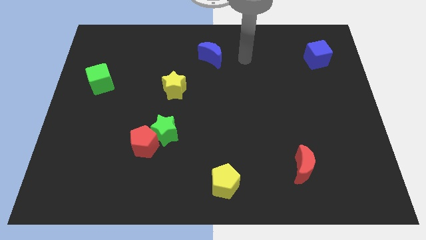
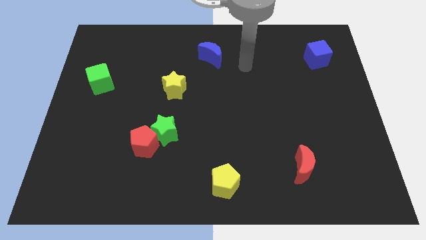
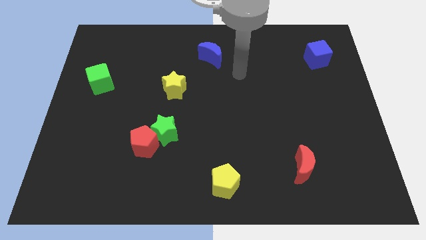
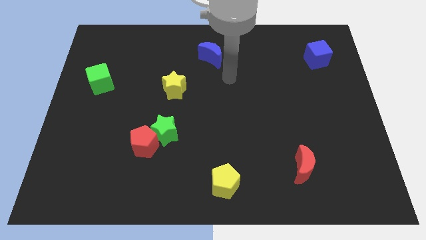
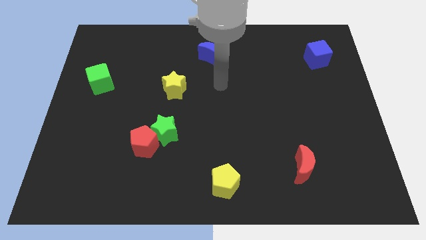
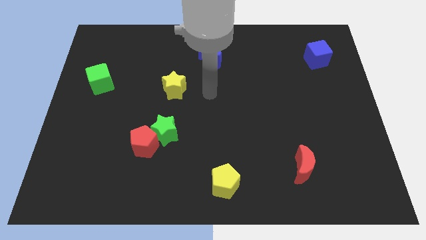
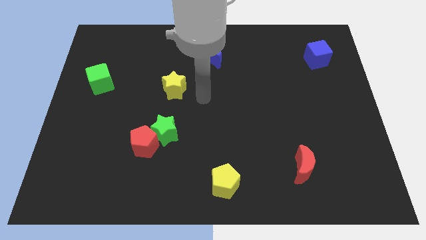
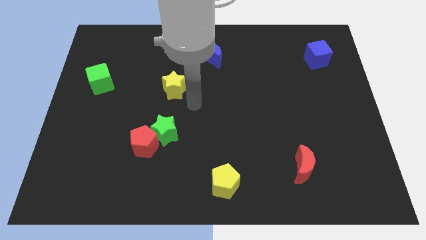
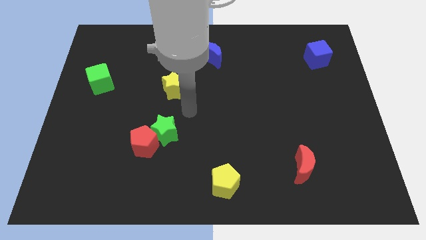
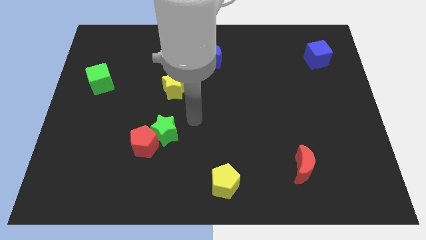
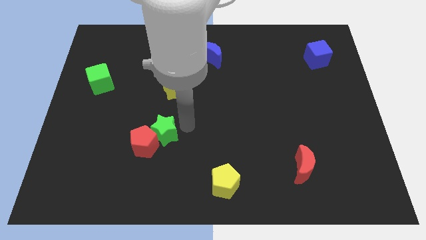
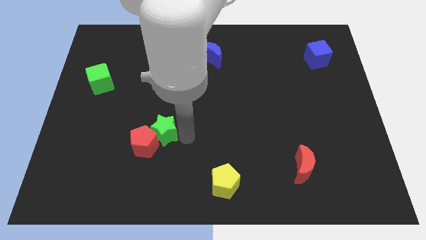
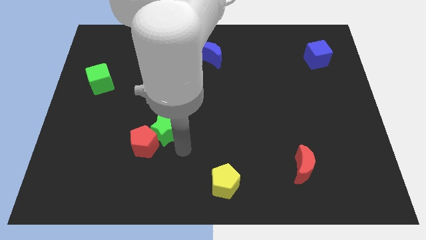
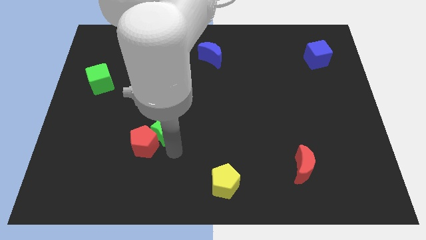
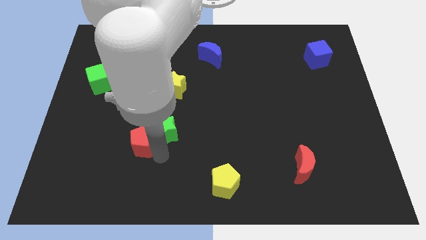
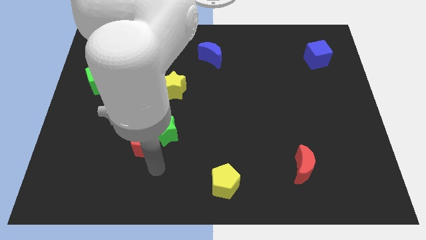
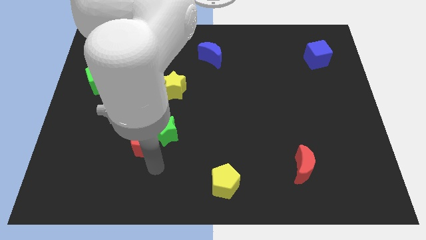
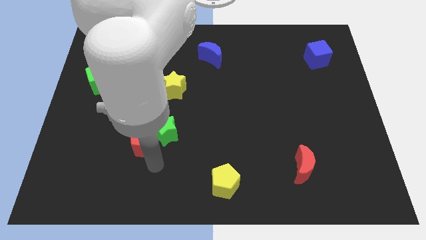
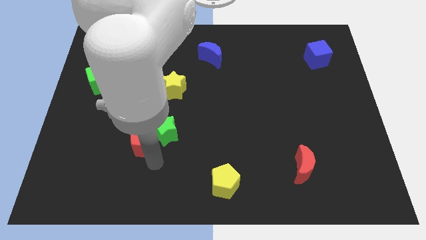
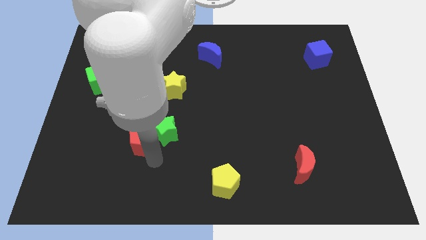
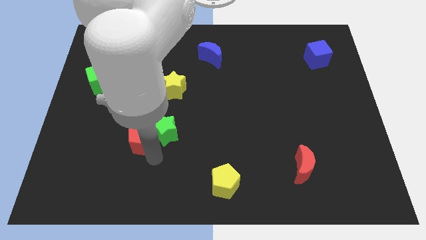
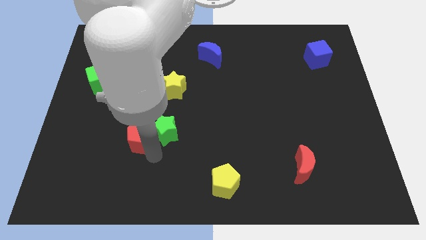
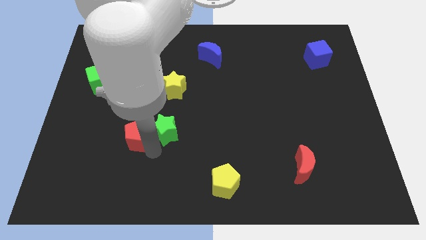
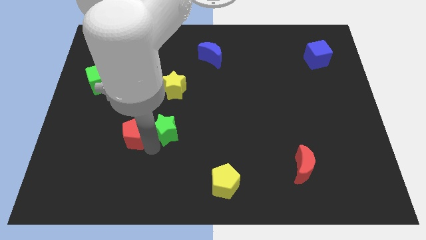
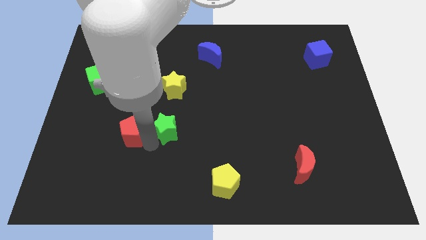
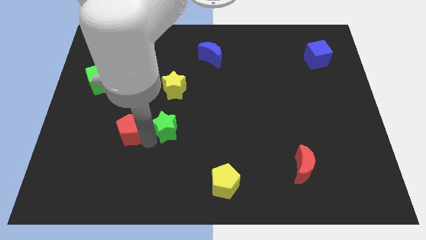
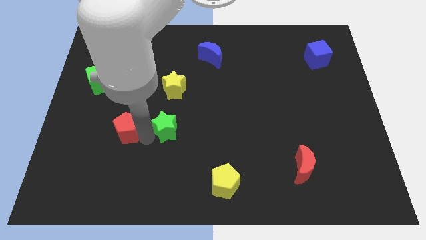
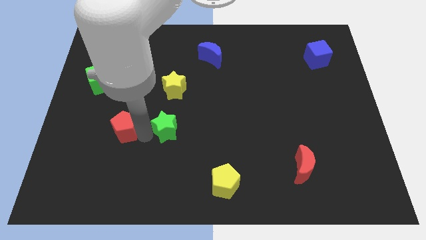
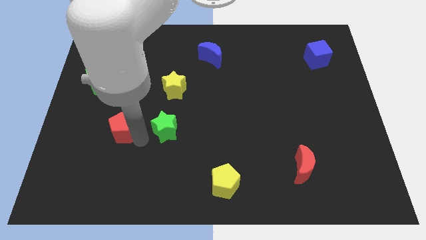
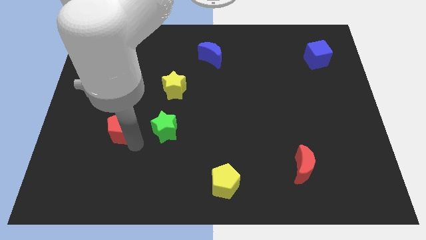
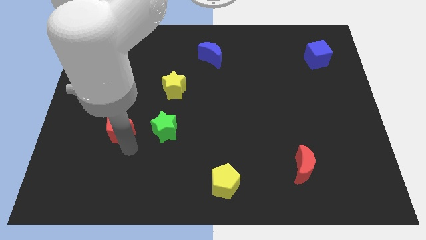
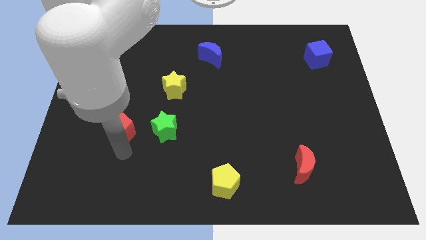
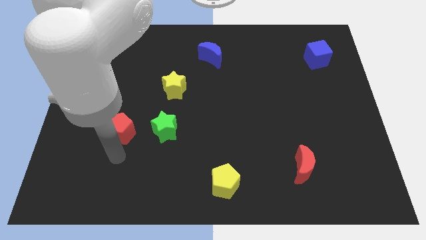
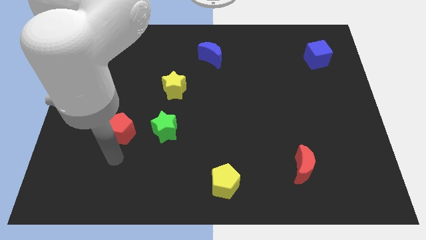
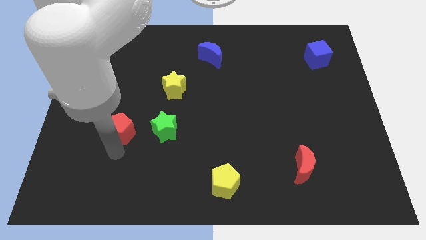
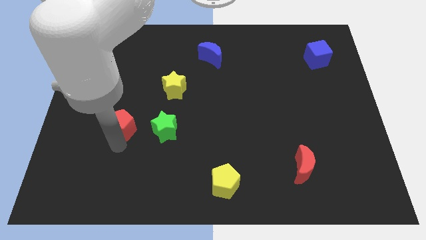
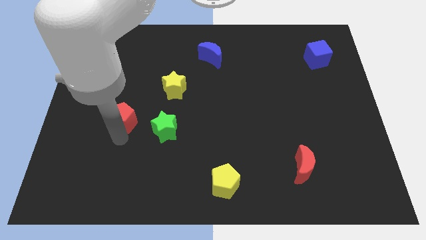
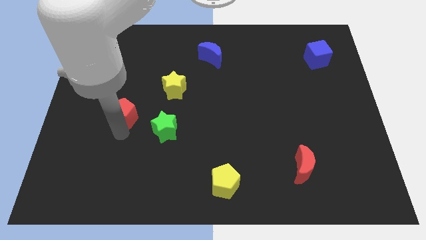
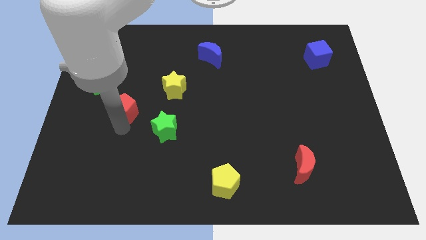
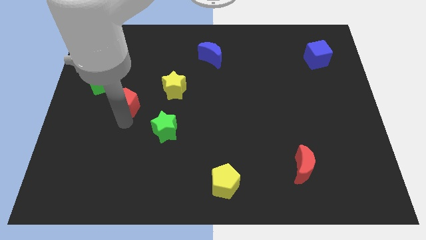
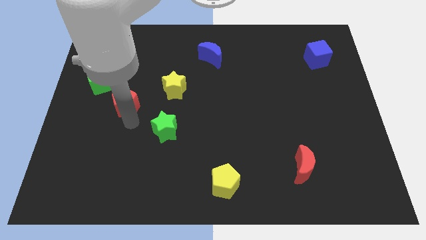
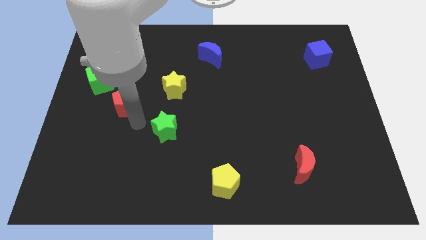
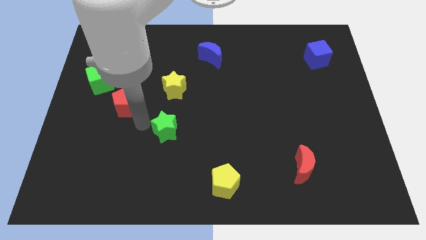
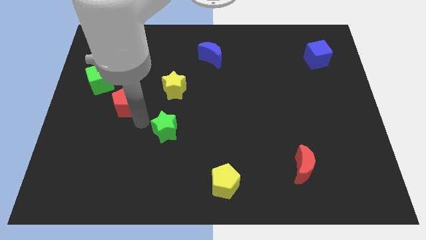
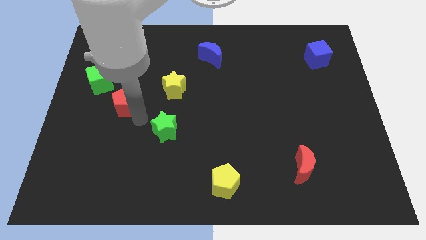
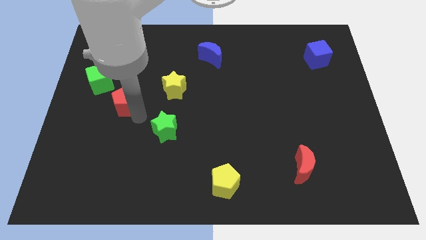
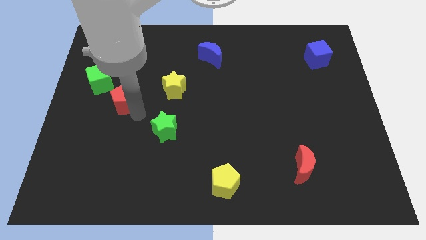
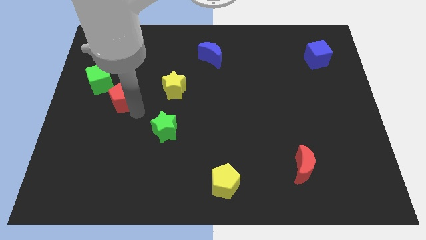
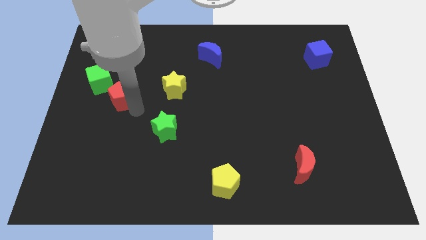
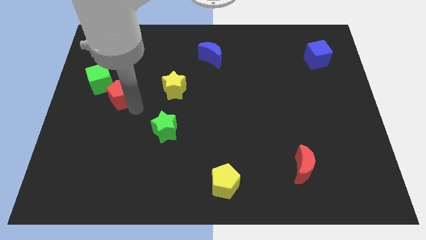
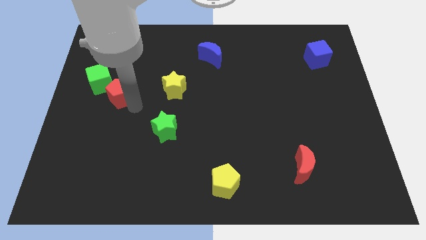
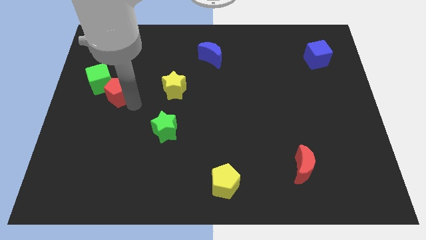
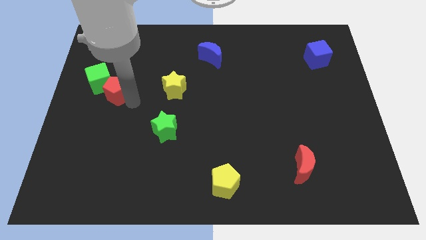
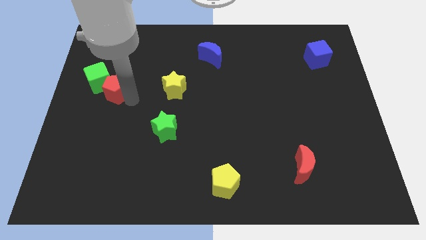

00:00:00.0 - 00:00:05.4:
push the red pentagon towards the green cube

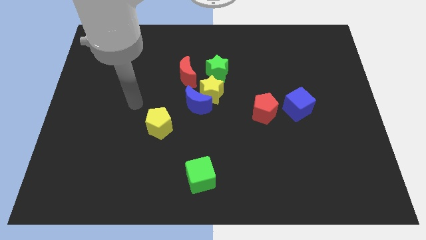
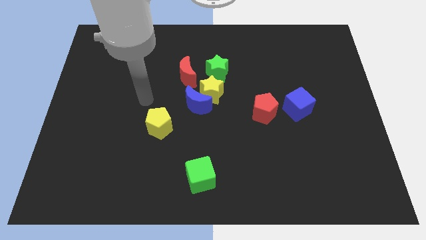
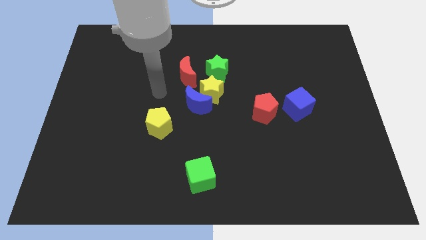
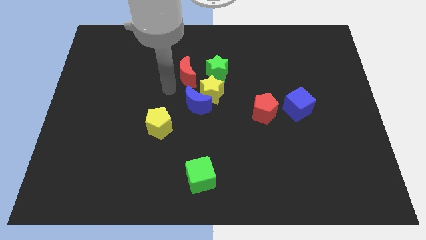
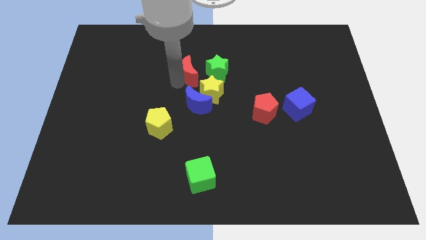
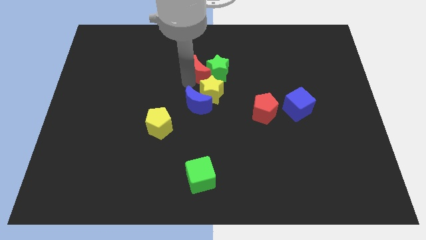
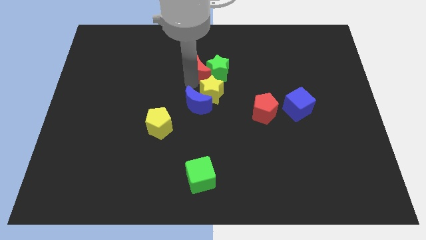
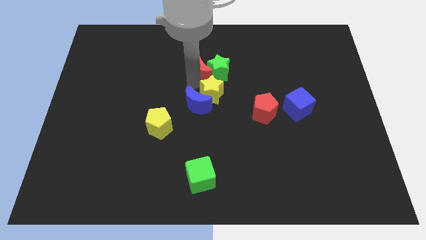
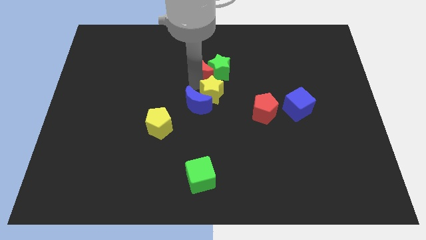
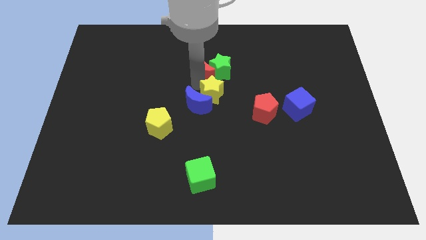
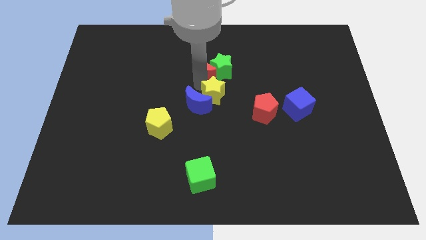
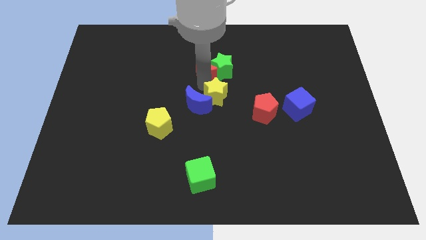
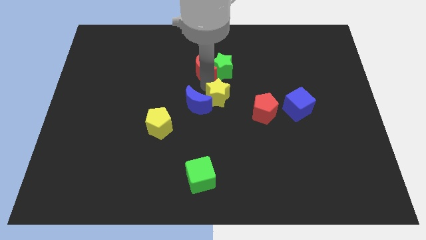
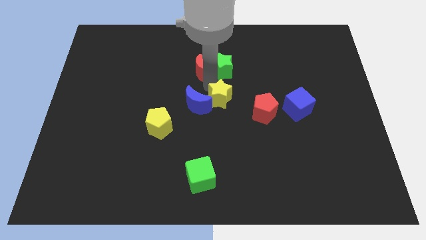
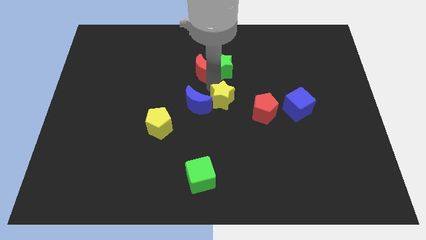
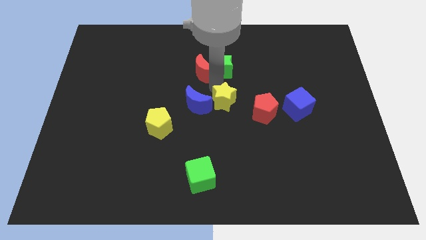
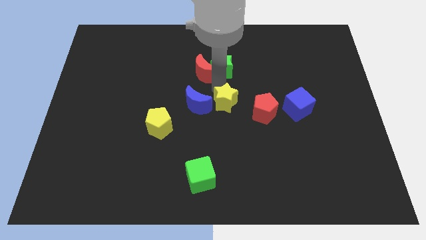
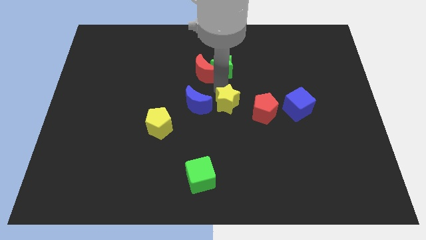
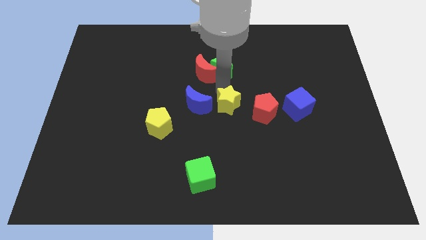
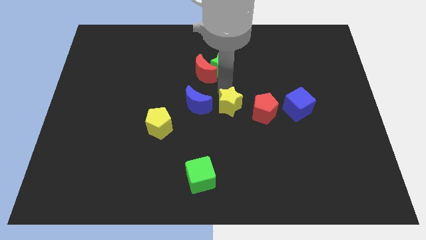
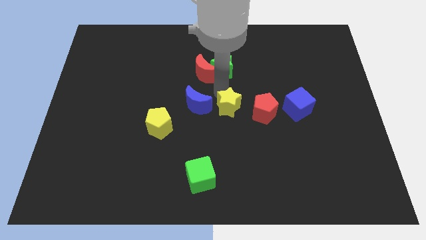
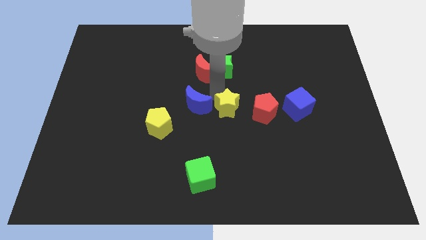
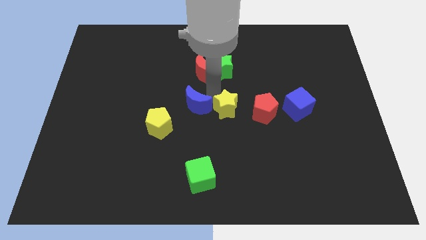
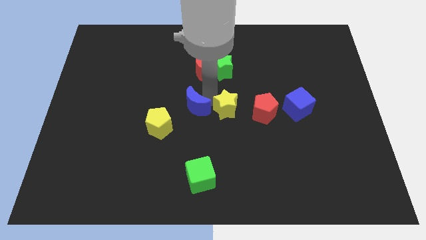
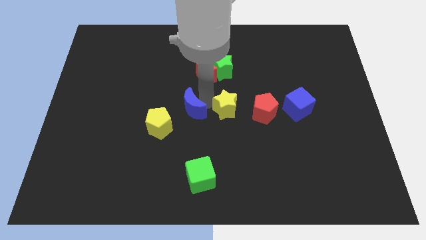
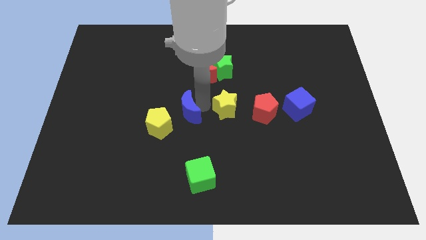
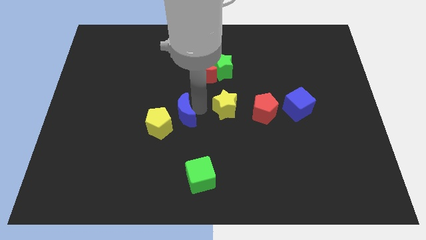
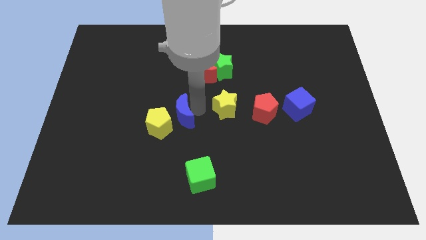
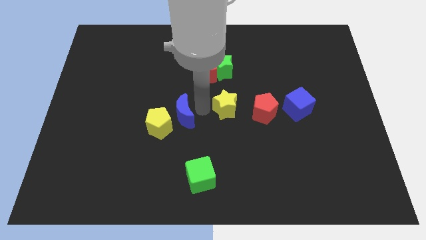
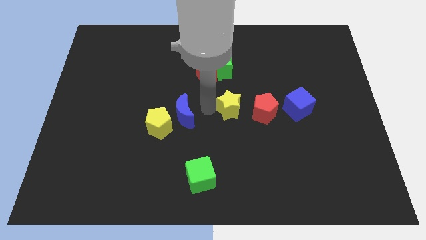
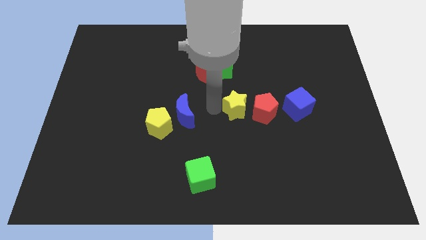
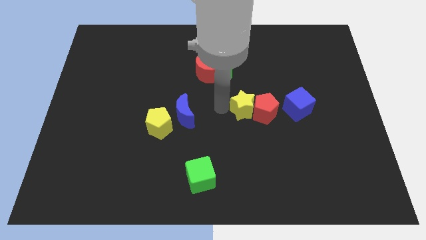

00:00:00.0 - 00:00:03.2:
push the yellow star to the red pentagon
